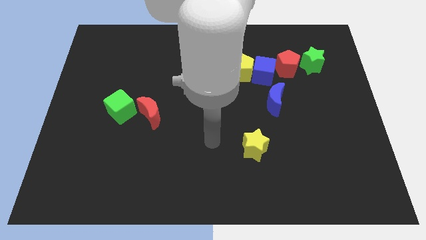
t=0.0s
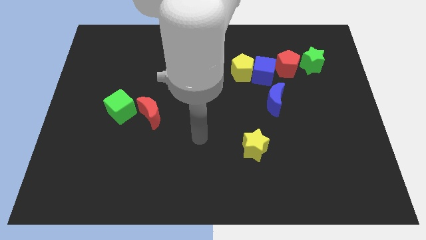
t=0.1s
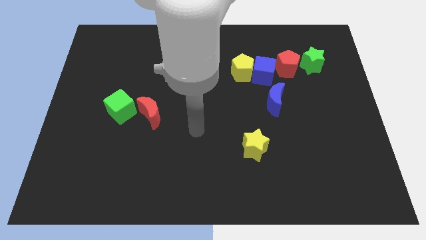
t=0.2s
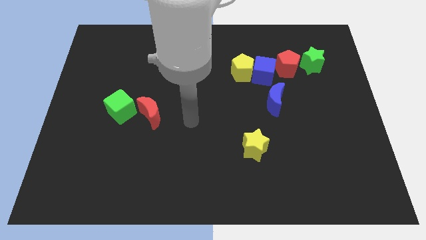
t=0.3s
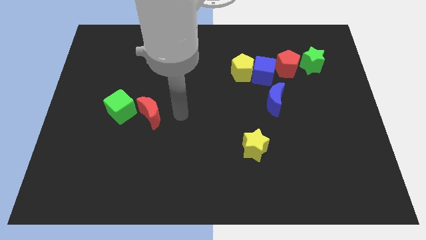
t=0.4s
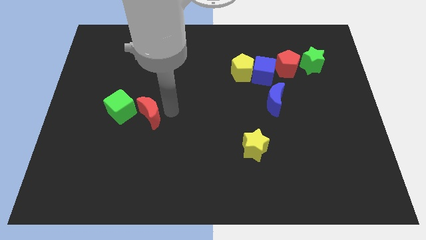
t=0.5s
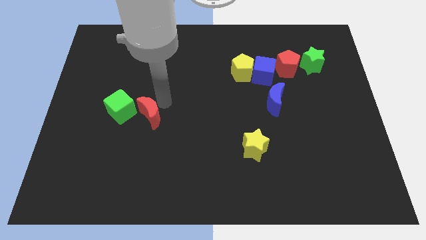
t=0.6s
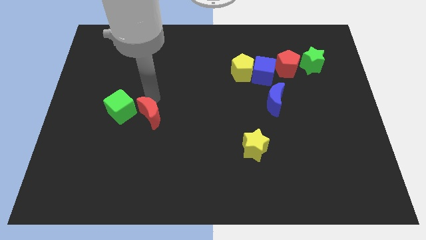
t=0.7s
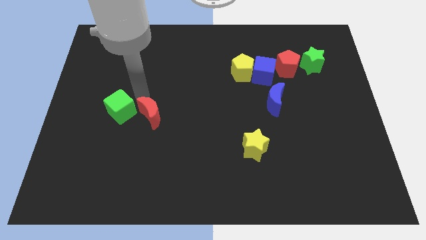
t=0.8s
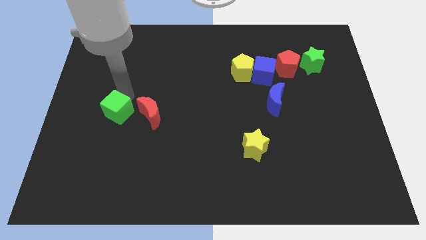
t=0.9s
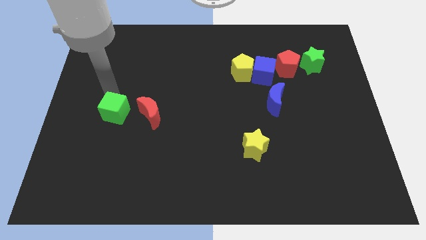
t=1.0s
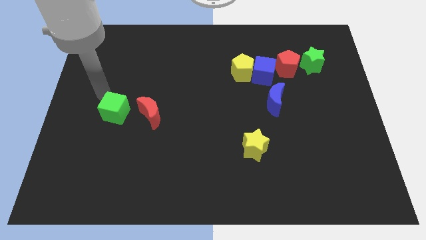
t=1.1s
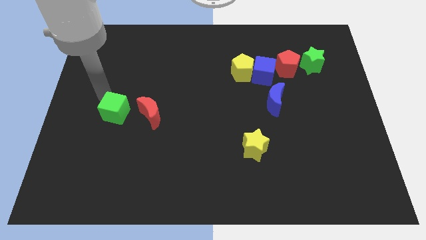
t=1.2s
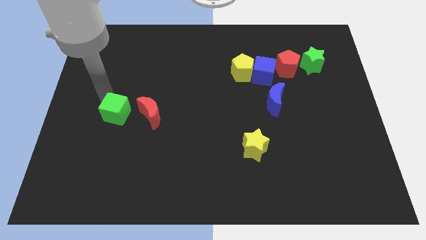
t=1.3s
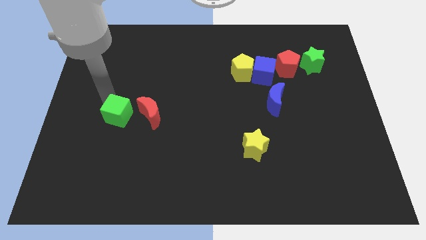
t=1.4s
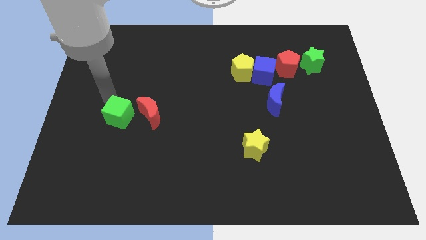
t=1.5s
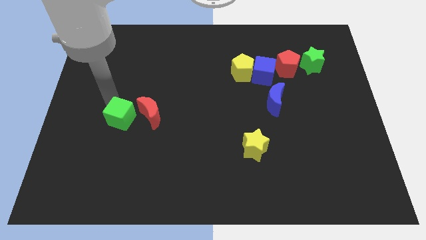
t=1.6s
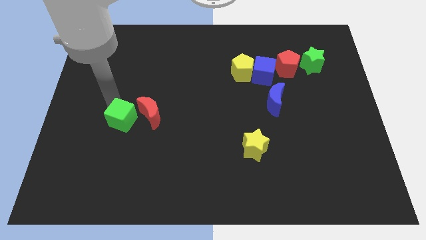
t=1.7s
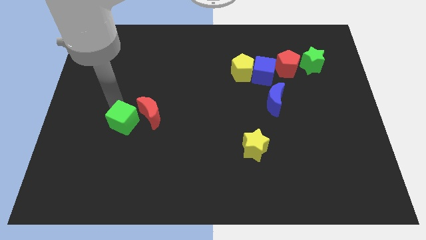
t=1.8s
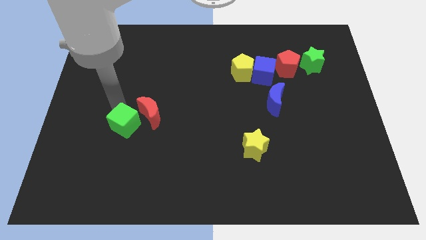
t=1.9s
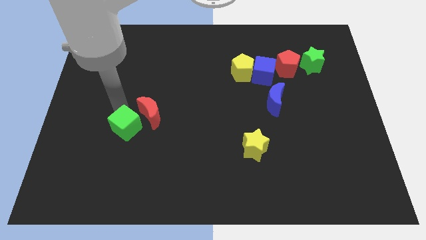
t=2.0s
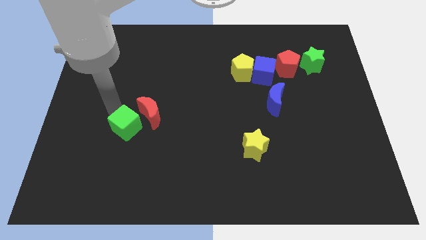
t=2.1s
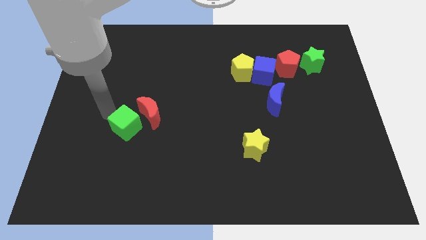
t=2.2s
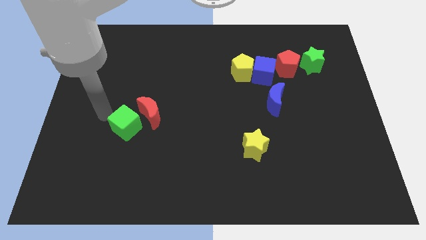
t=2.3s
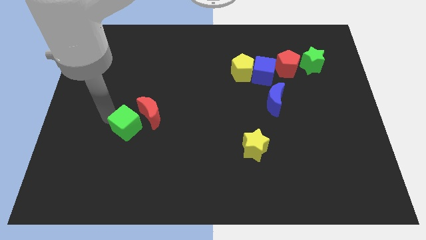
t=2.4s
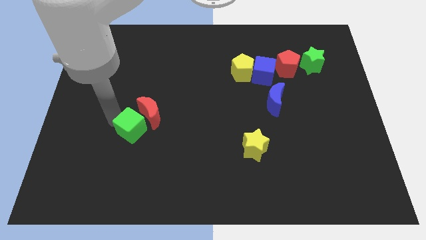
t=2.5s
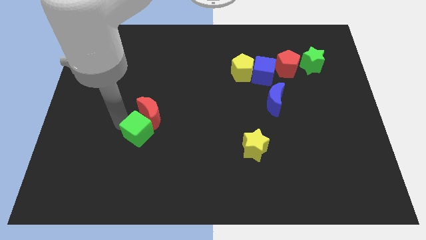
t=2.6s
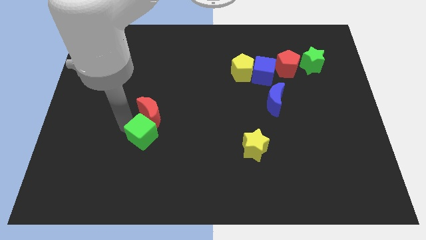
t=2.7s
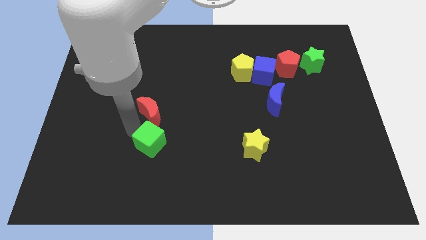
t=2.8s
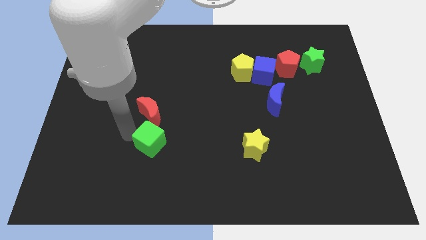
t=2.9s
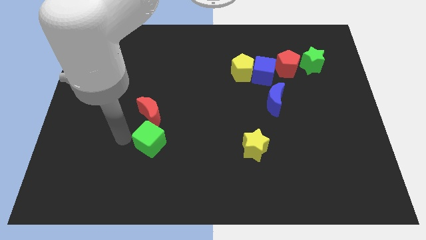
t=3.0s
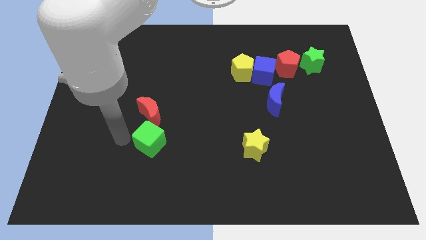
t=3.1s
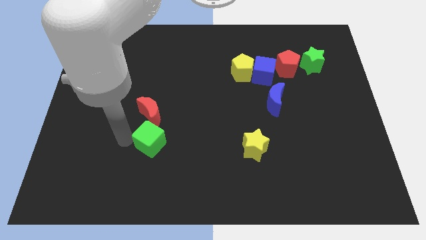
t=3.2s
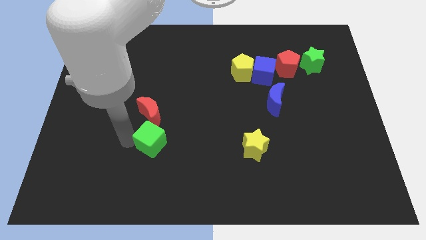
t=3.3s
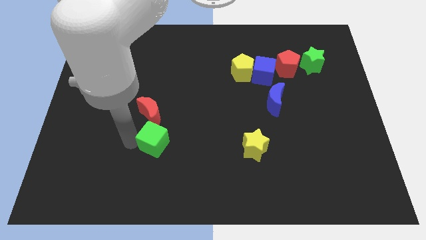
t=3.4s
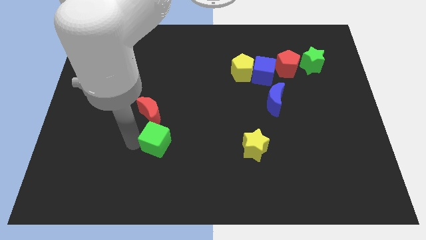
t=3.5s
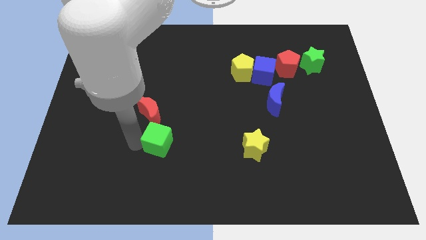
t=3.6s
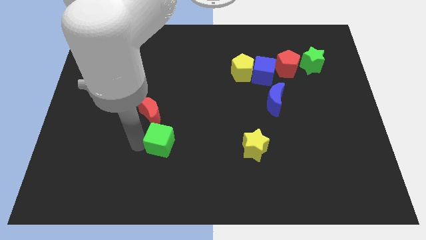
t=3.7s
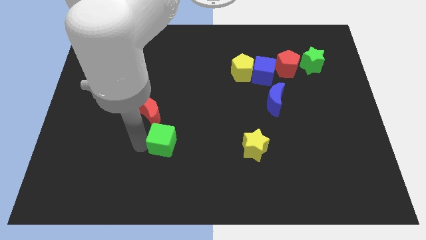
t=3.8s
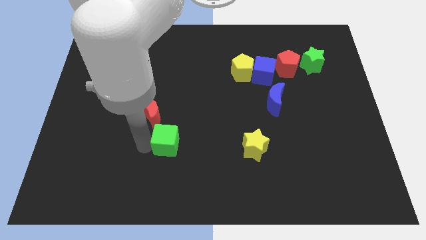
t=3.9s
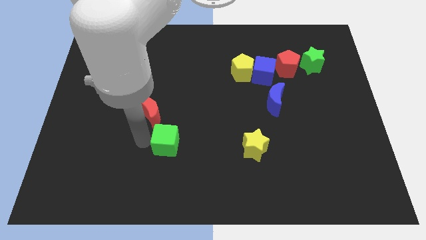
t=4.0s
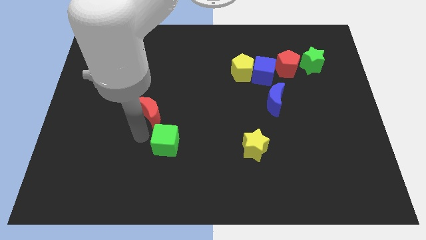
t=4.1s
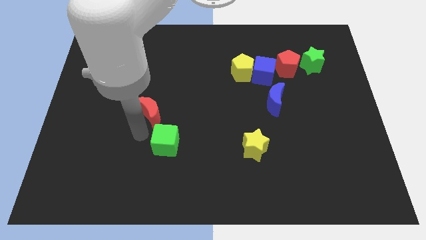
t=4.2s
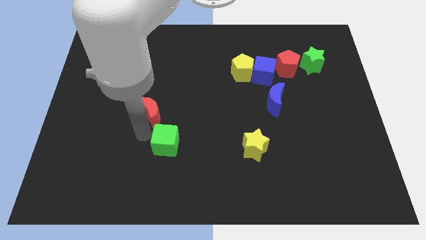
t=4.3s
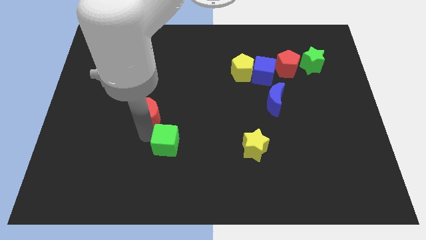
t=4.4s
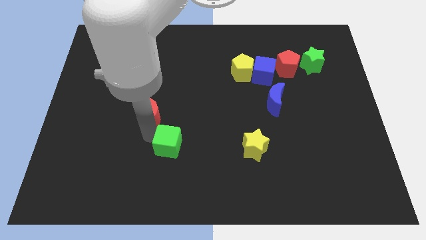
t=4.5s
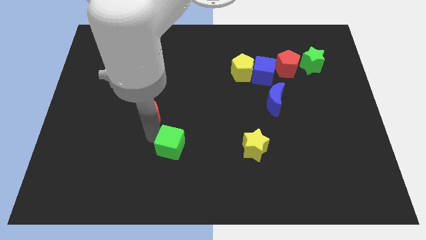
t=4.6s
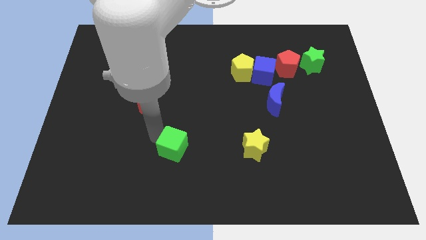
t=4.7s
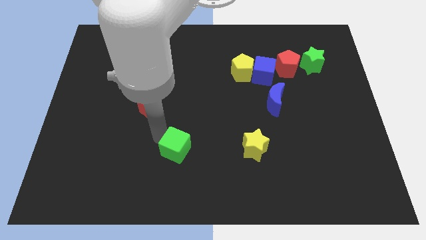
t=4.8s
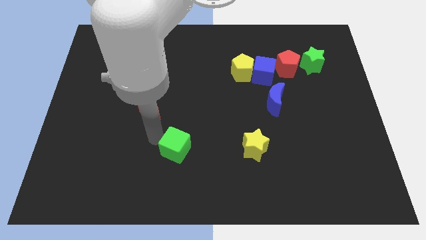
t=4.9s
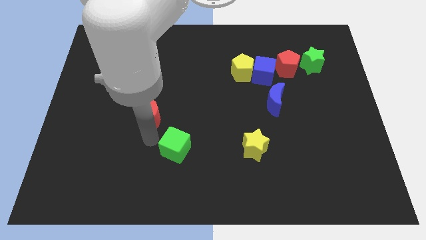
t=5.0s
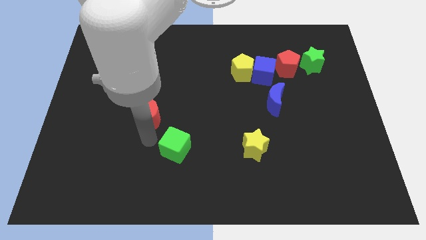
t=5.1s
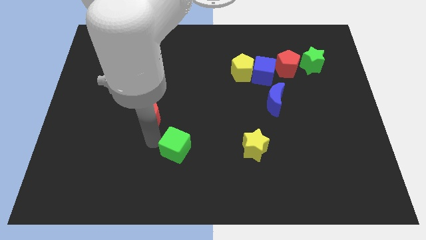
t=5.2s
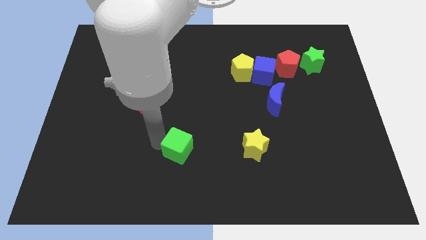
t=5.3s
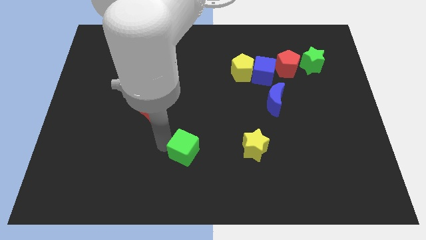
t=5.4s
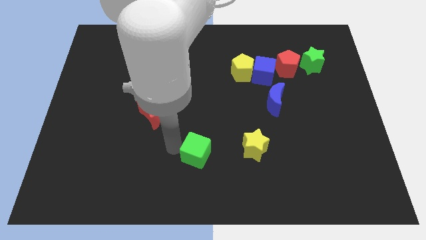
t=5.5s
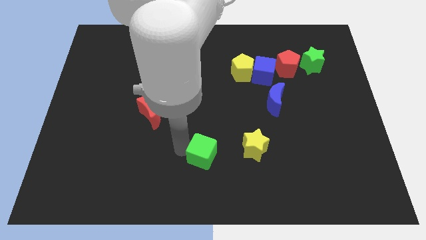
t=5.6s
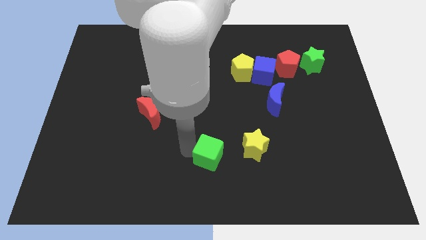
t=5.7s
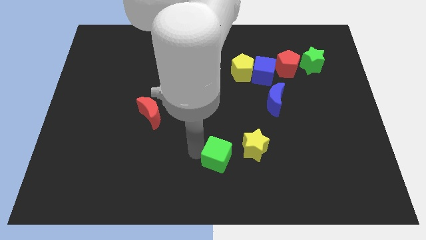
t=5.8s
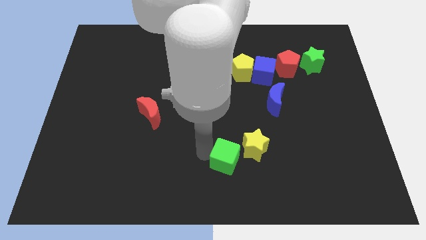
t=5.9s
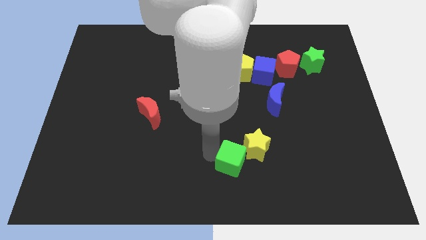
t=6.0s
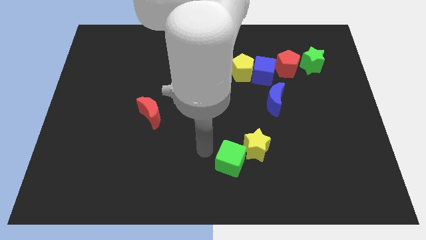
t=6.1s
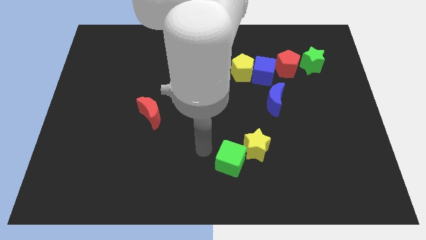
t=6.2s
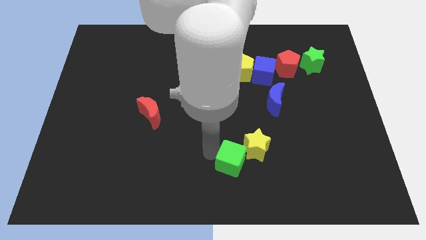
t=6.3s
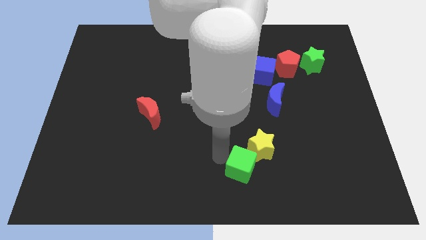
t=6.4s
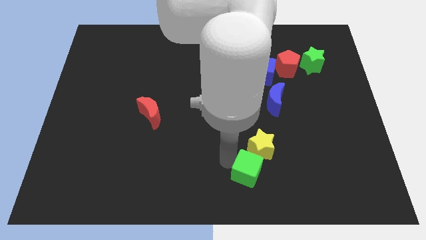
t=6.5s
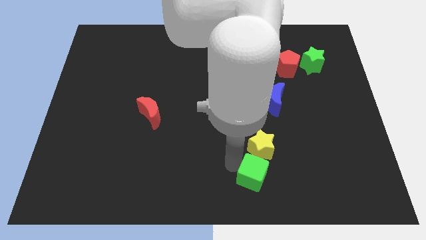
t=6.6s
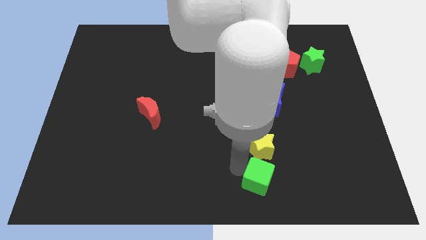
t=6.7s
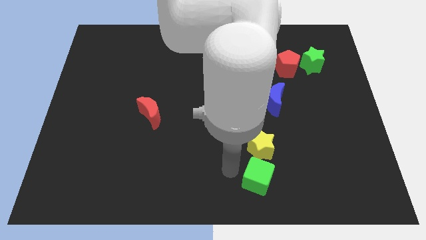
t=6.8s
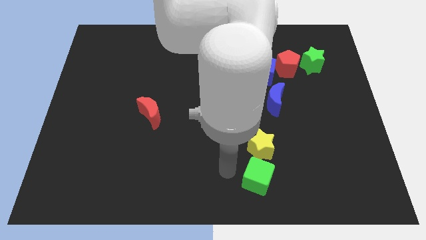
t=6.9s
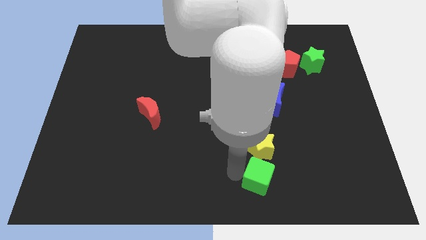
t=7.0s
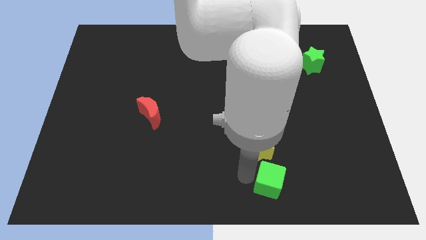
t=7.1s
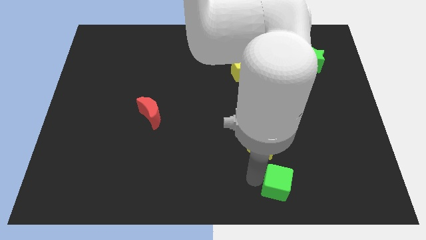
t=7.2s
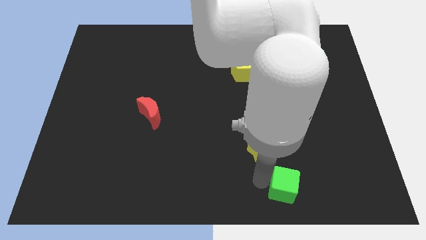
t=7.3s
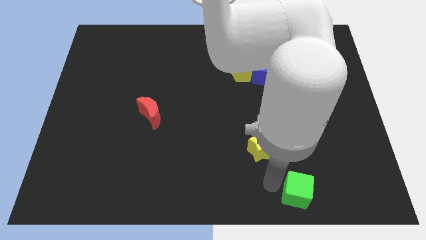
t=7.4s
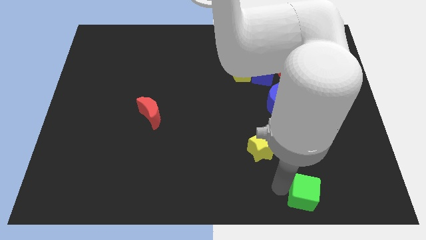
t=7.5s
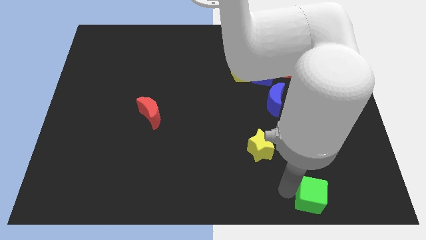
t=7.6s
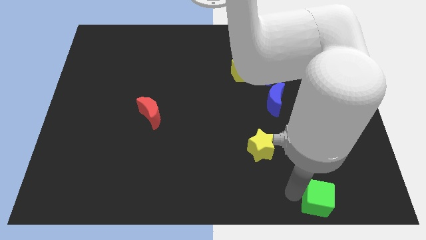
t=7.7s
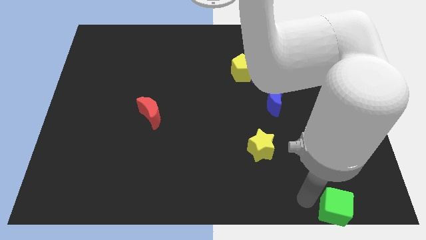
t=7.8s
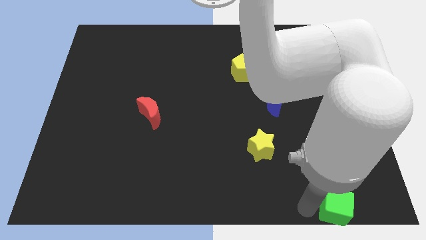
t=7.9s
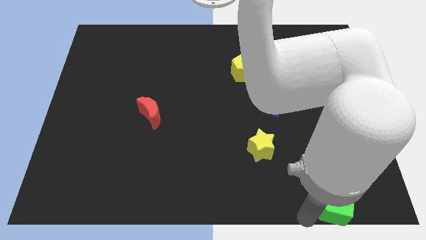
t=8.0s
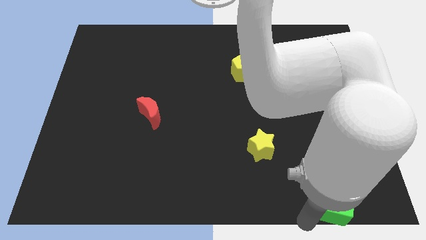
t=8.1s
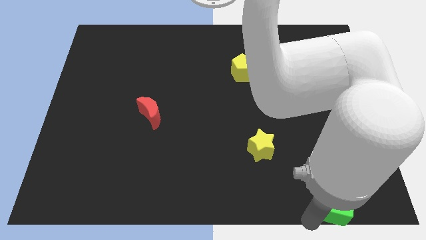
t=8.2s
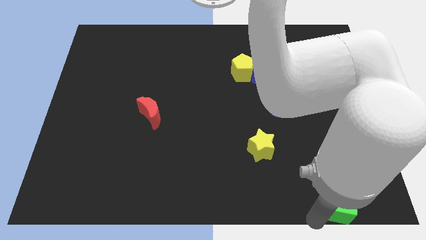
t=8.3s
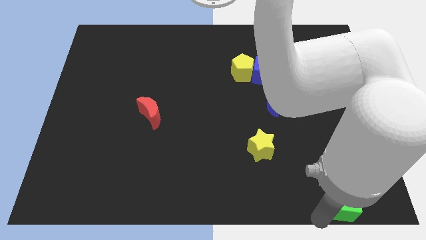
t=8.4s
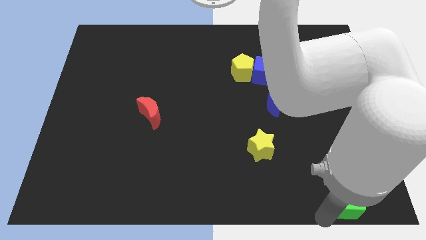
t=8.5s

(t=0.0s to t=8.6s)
push the green cube to the bottom right of the board
